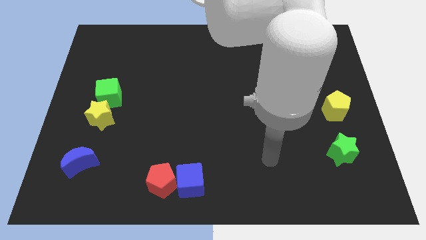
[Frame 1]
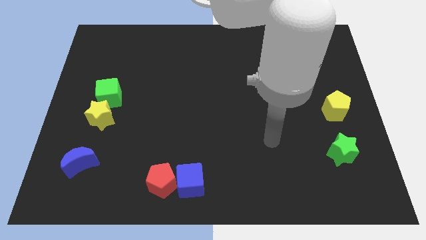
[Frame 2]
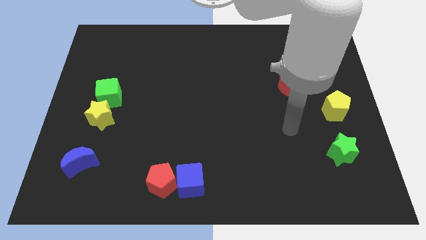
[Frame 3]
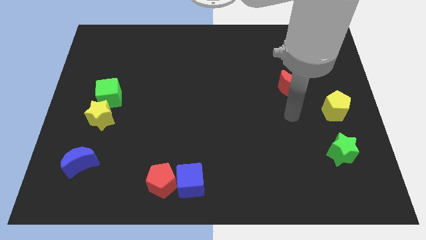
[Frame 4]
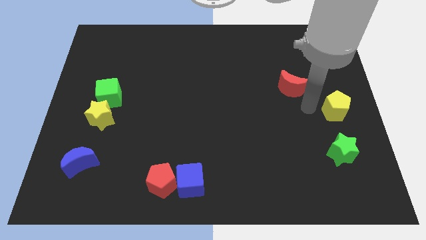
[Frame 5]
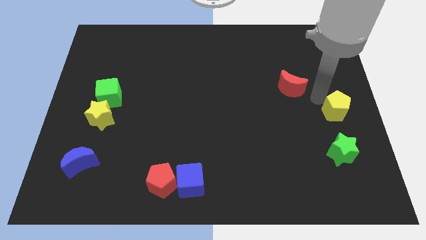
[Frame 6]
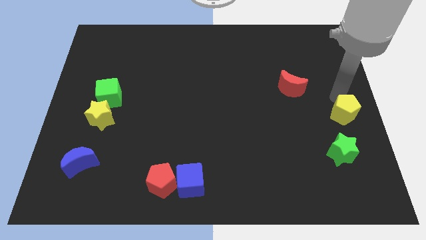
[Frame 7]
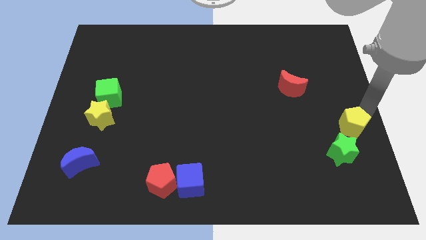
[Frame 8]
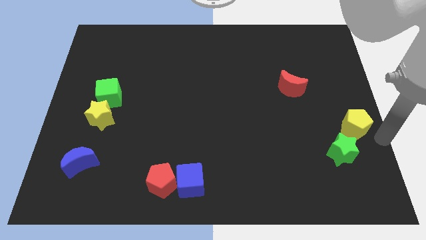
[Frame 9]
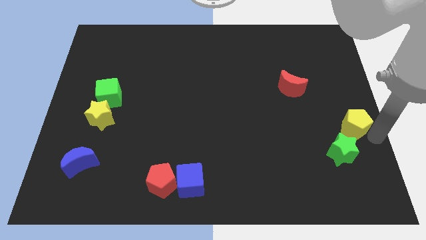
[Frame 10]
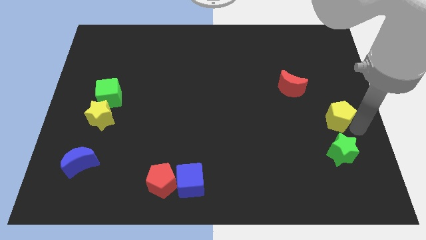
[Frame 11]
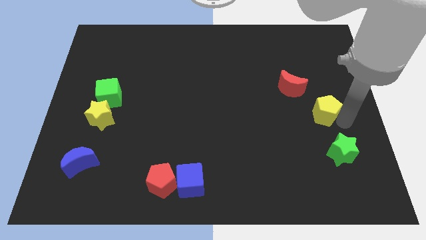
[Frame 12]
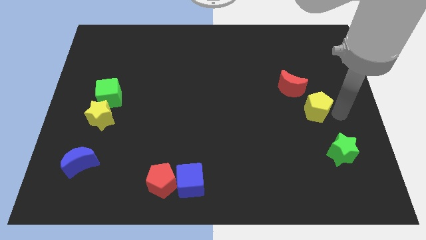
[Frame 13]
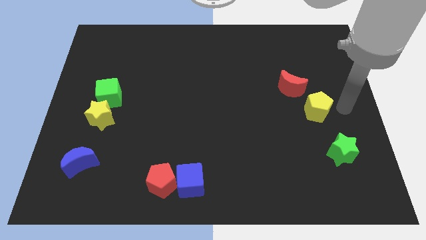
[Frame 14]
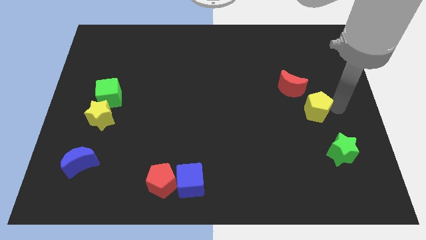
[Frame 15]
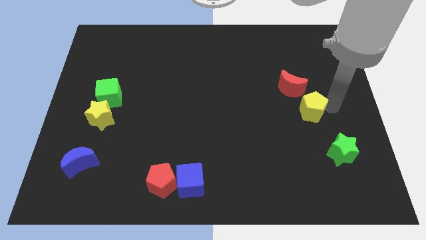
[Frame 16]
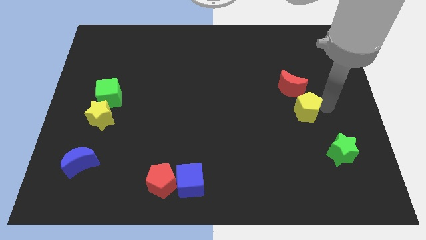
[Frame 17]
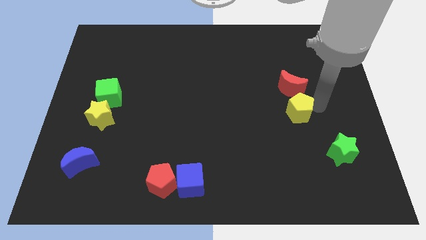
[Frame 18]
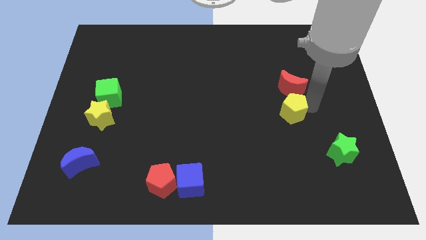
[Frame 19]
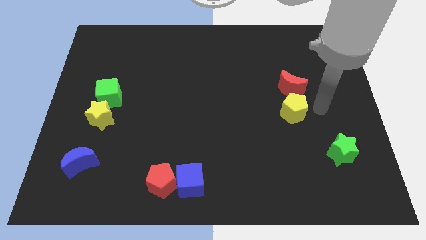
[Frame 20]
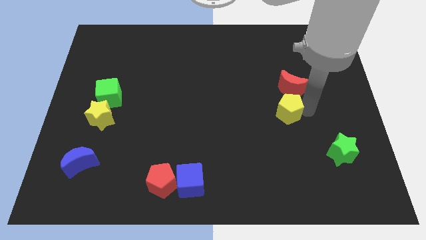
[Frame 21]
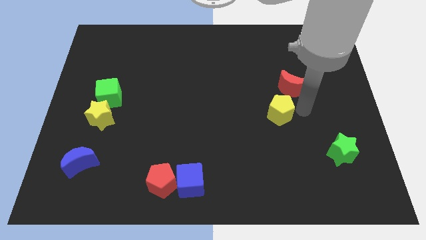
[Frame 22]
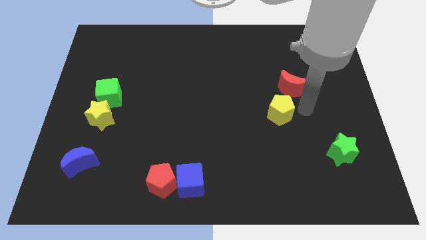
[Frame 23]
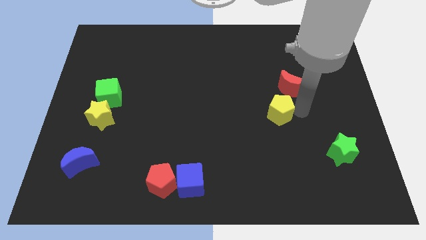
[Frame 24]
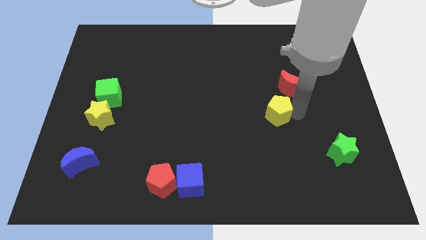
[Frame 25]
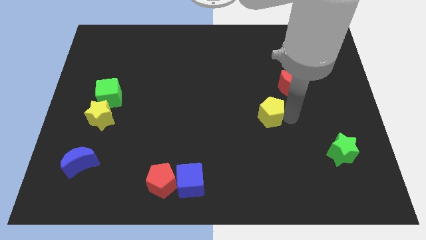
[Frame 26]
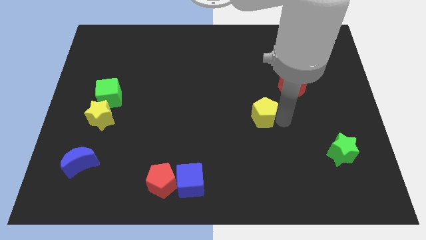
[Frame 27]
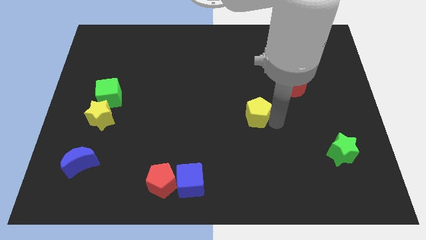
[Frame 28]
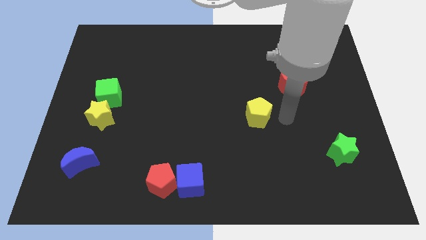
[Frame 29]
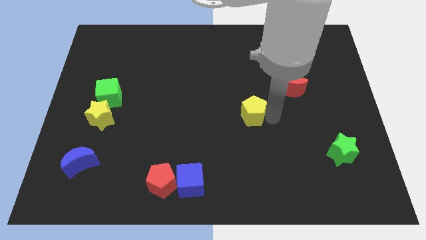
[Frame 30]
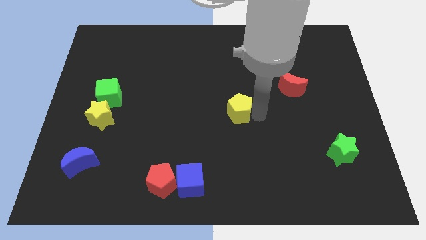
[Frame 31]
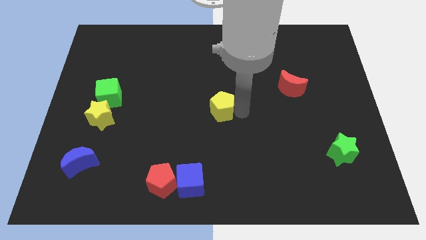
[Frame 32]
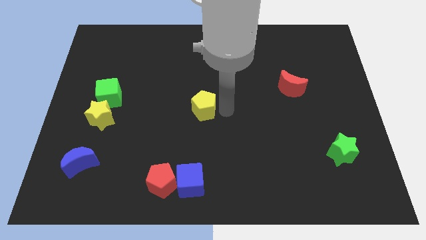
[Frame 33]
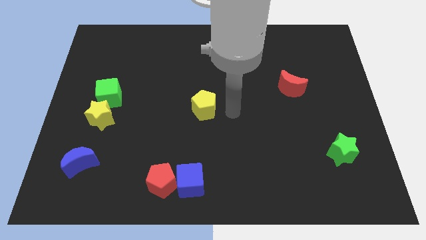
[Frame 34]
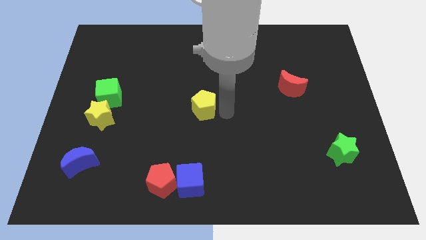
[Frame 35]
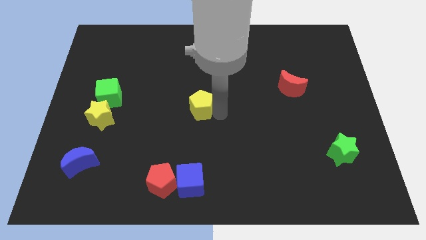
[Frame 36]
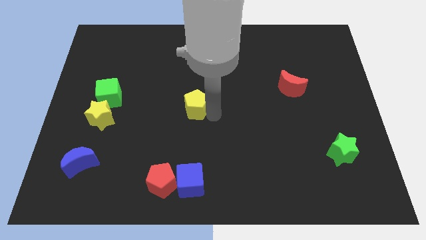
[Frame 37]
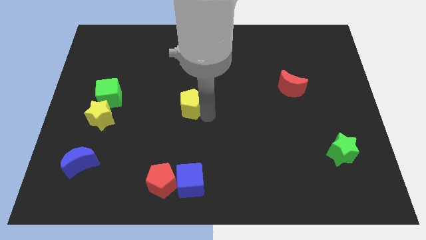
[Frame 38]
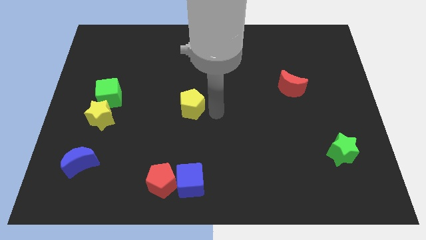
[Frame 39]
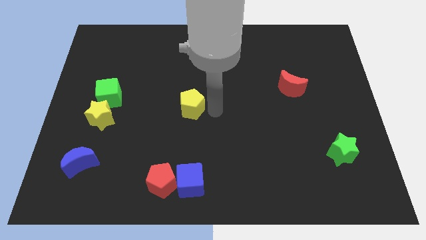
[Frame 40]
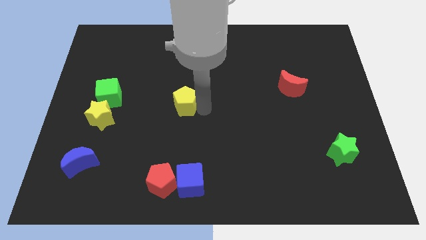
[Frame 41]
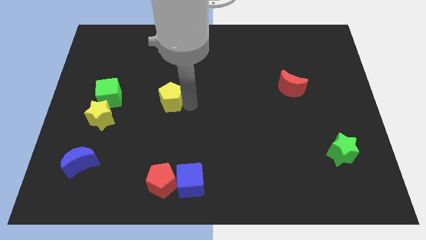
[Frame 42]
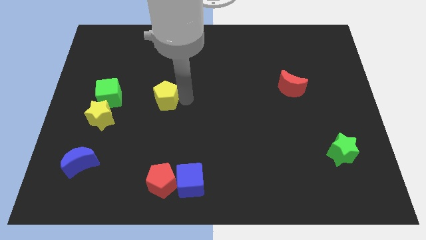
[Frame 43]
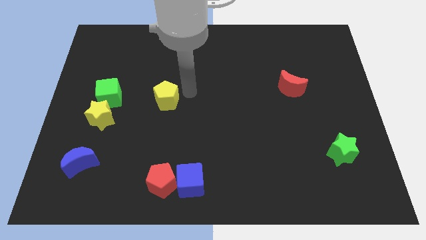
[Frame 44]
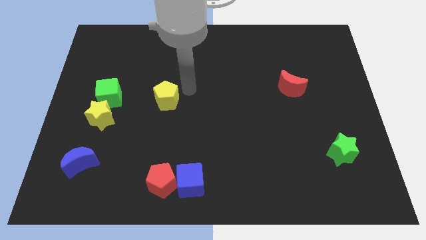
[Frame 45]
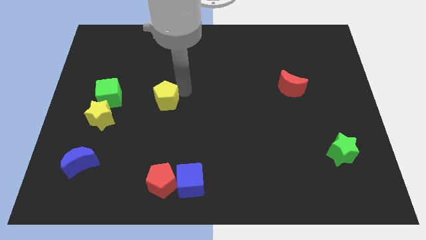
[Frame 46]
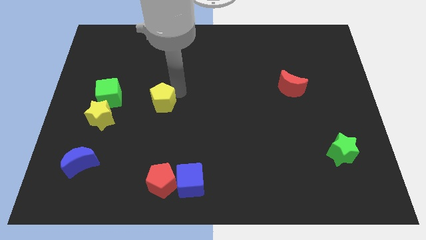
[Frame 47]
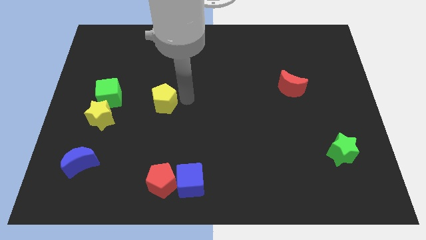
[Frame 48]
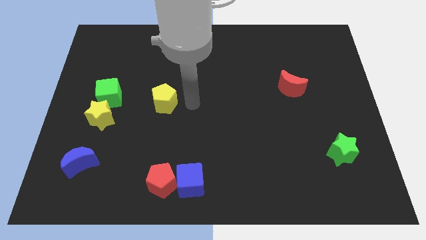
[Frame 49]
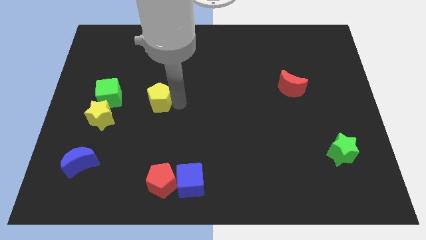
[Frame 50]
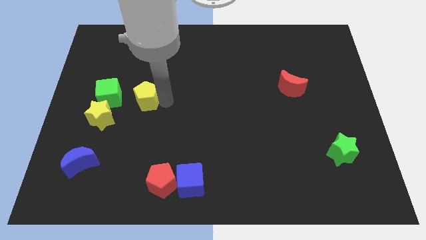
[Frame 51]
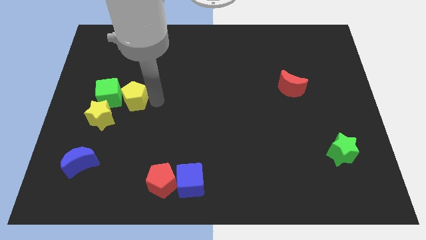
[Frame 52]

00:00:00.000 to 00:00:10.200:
slide the yellow pentagon to the green cube

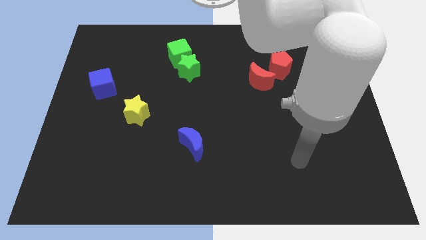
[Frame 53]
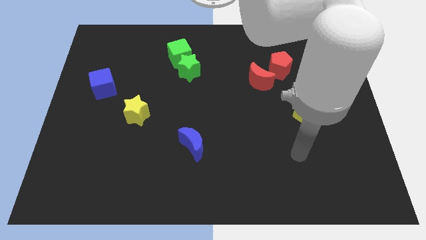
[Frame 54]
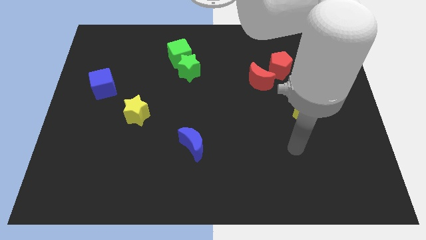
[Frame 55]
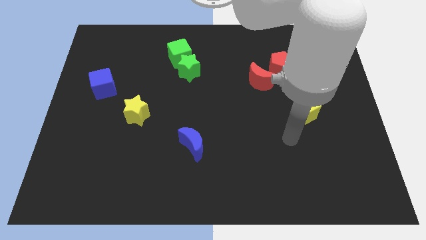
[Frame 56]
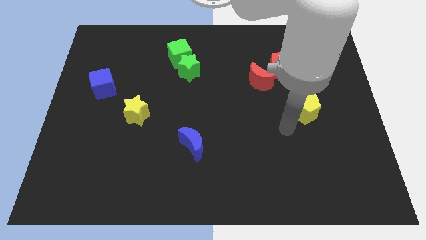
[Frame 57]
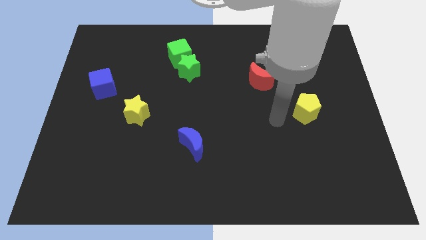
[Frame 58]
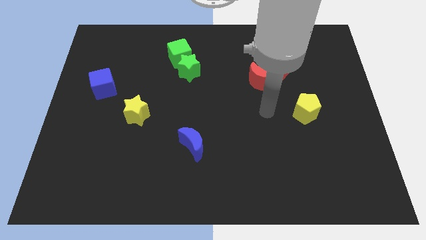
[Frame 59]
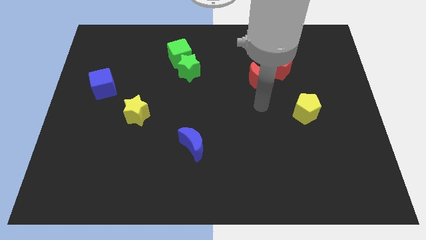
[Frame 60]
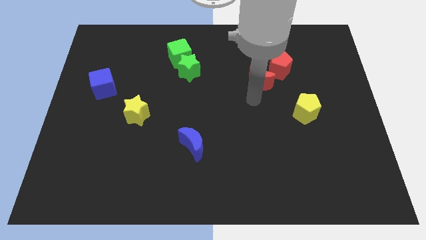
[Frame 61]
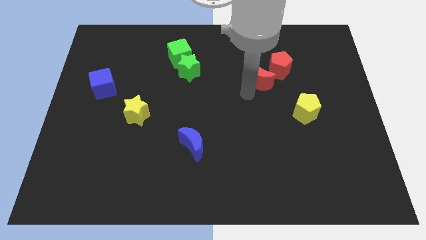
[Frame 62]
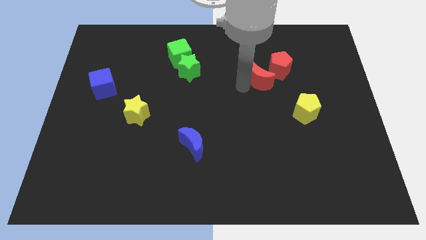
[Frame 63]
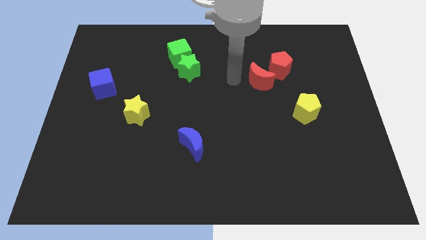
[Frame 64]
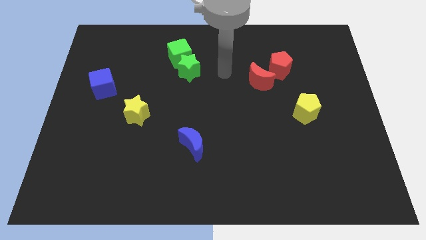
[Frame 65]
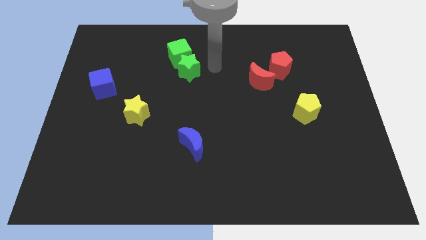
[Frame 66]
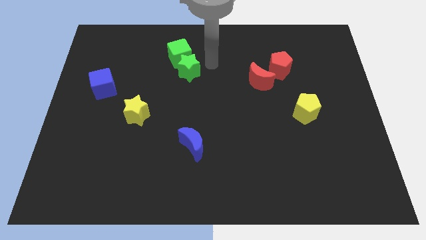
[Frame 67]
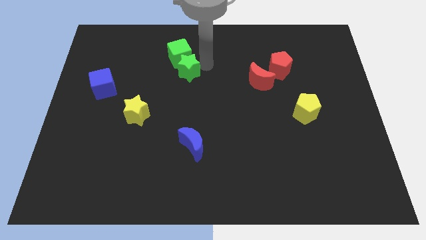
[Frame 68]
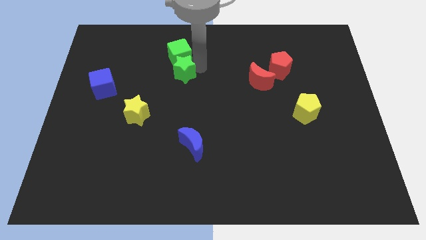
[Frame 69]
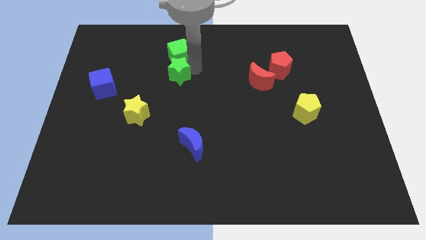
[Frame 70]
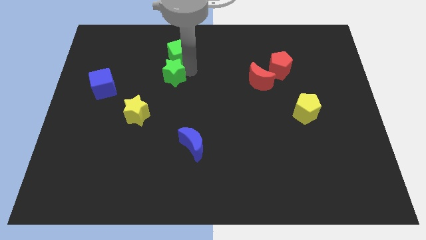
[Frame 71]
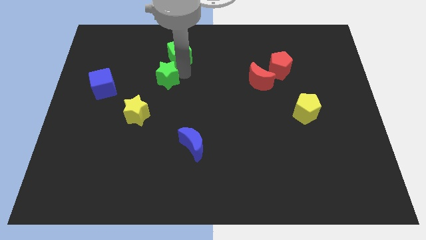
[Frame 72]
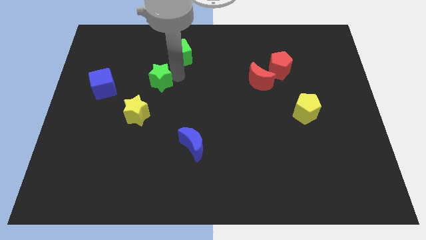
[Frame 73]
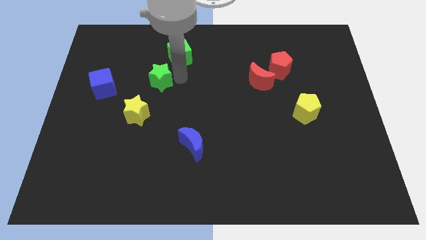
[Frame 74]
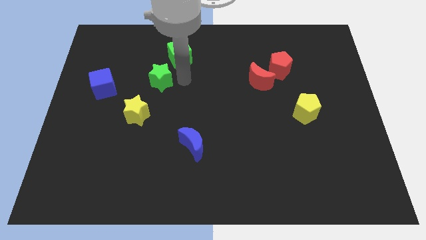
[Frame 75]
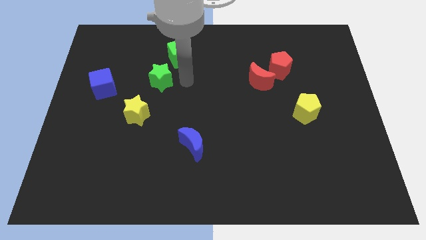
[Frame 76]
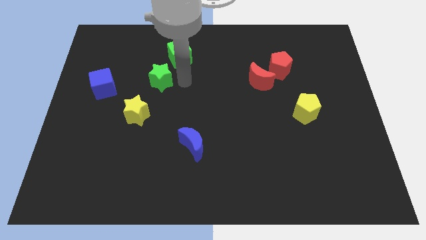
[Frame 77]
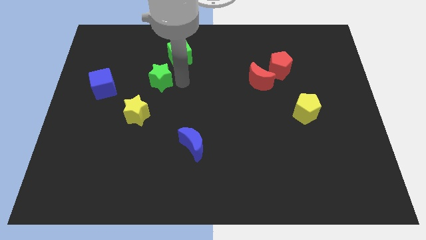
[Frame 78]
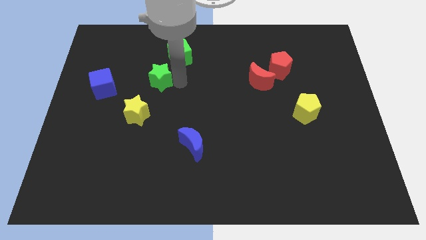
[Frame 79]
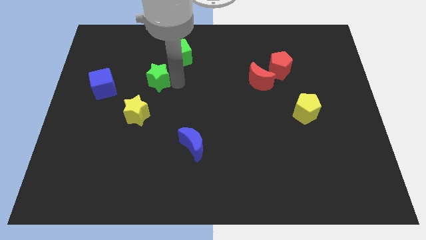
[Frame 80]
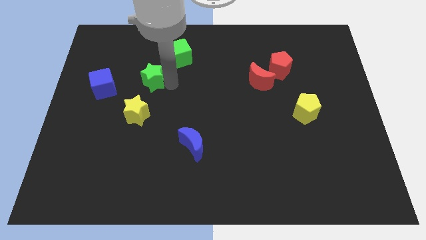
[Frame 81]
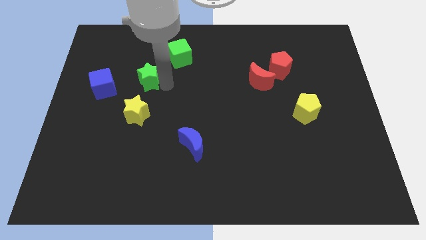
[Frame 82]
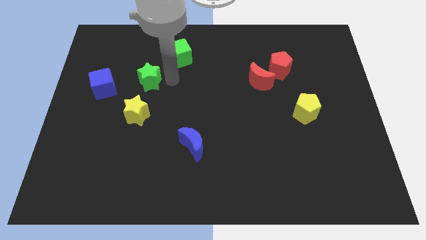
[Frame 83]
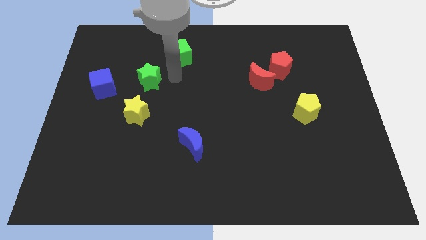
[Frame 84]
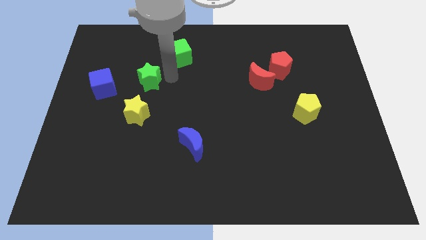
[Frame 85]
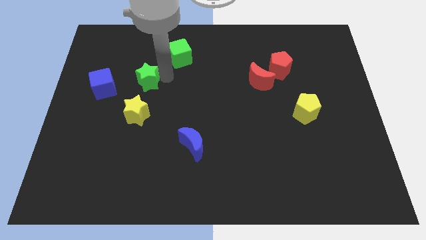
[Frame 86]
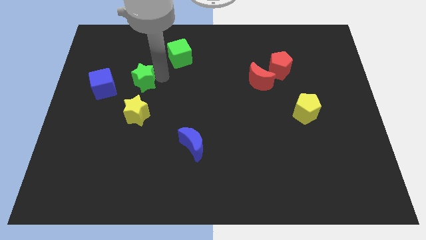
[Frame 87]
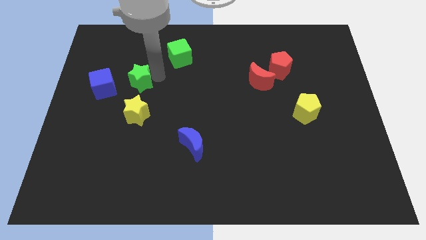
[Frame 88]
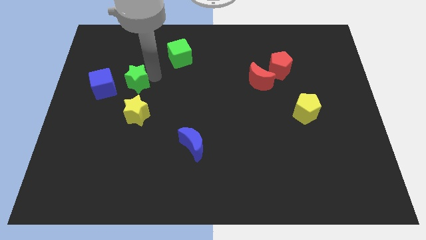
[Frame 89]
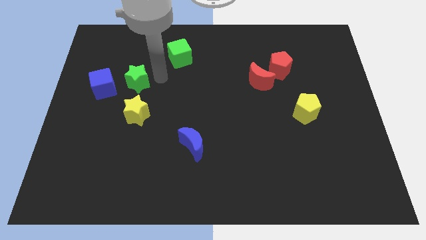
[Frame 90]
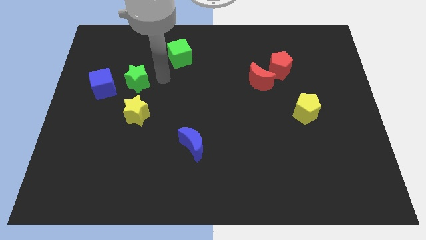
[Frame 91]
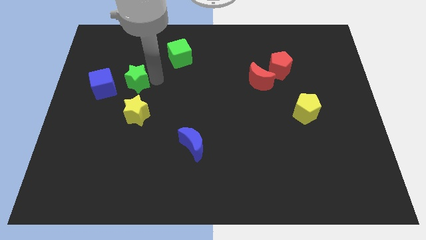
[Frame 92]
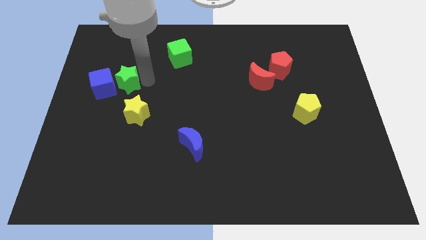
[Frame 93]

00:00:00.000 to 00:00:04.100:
put the green star next to the blue cube
